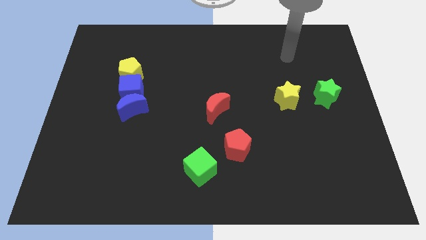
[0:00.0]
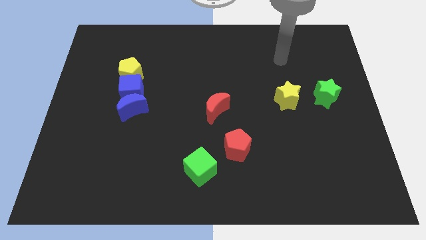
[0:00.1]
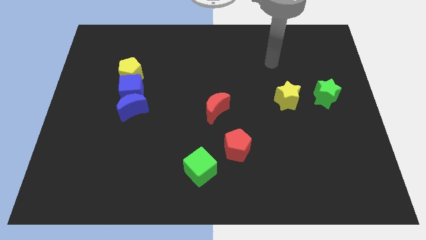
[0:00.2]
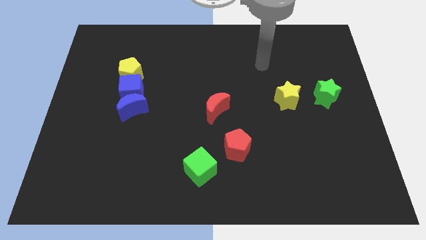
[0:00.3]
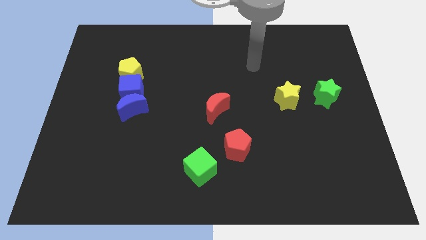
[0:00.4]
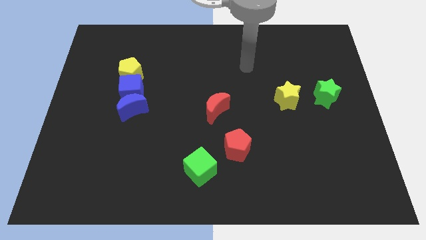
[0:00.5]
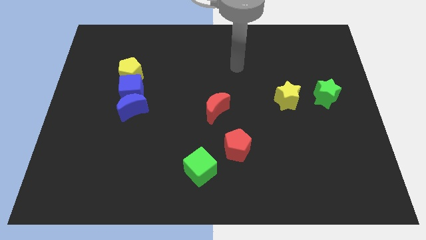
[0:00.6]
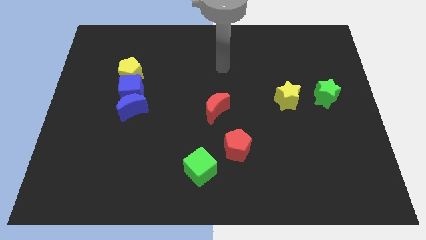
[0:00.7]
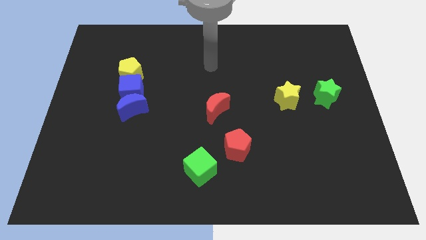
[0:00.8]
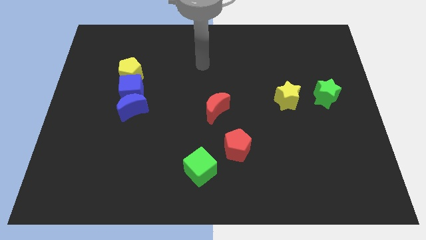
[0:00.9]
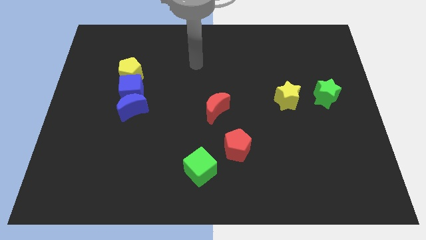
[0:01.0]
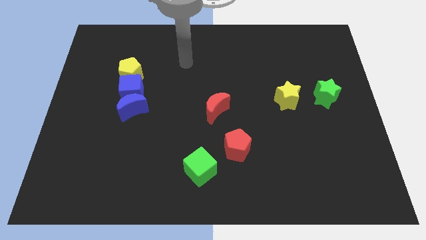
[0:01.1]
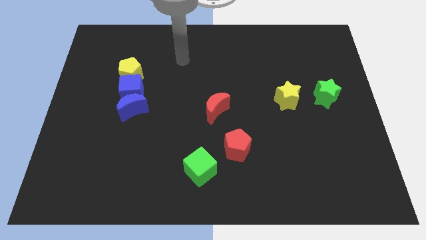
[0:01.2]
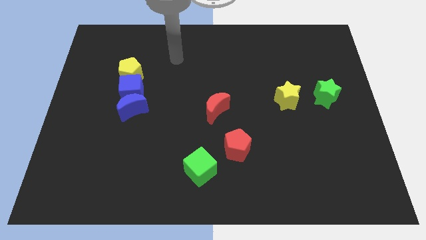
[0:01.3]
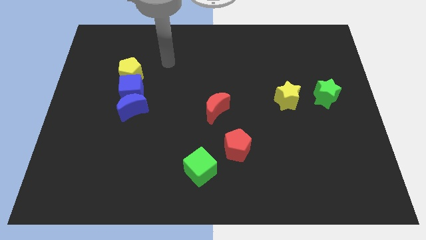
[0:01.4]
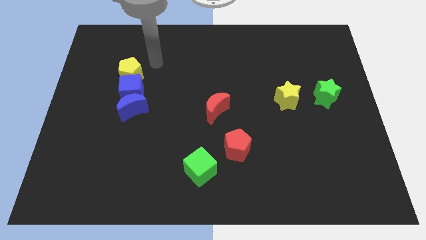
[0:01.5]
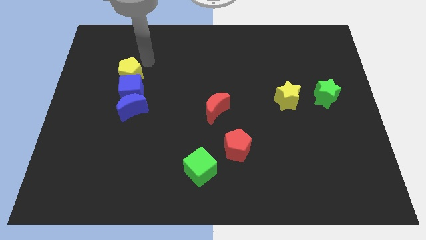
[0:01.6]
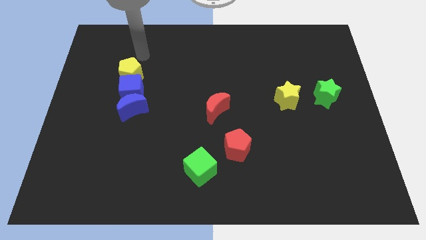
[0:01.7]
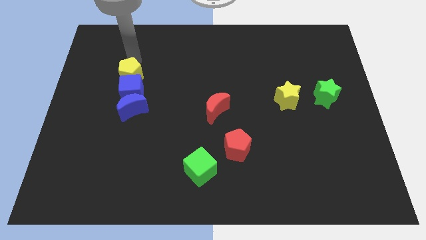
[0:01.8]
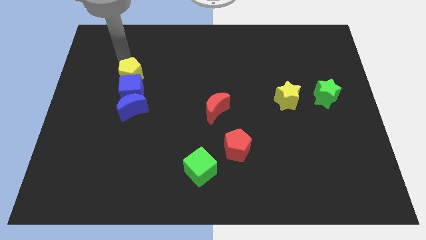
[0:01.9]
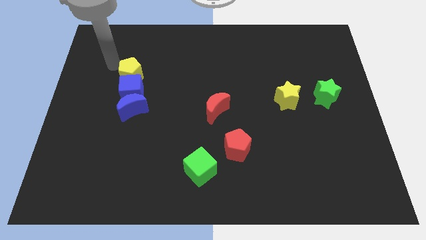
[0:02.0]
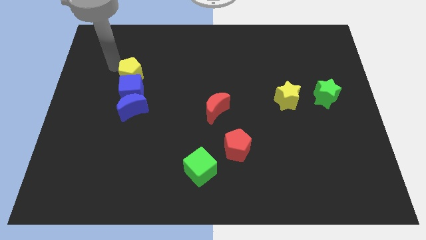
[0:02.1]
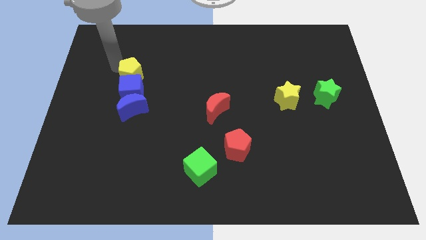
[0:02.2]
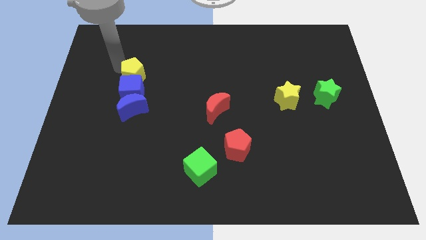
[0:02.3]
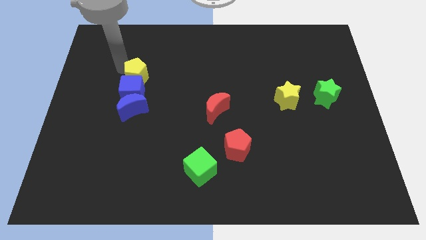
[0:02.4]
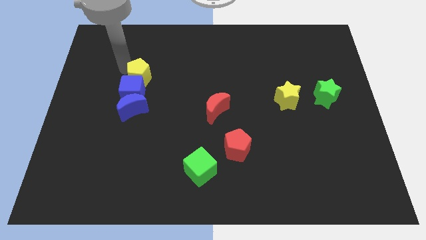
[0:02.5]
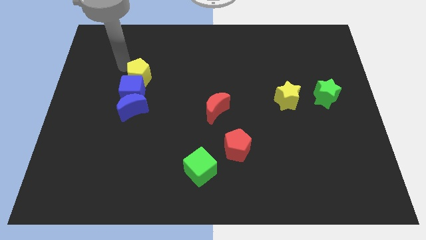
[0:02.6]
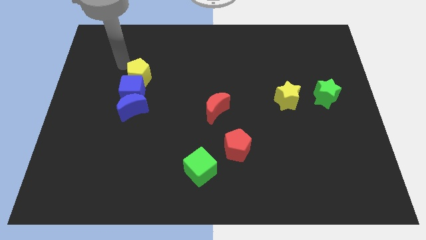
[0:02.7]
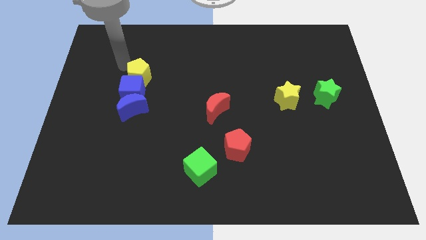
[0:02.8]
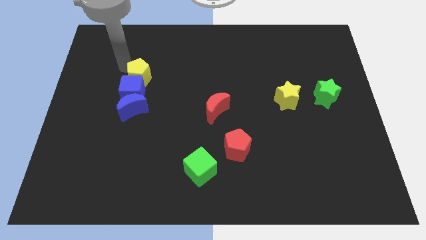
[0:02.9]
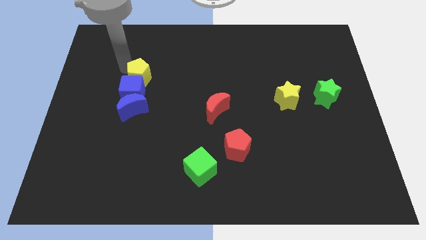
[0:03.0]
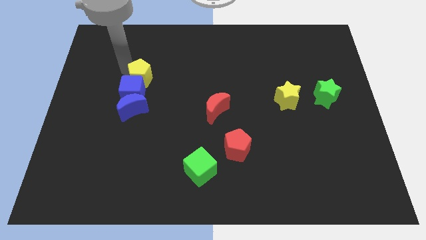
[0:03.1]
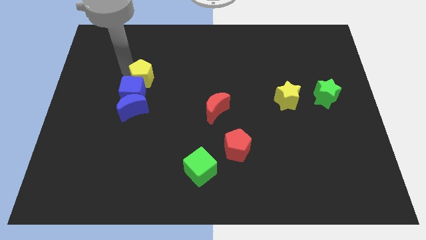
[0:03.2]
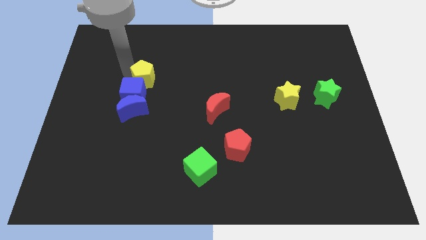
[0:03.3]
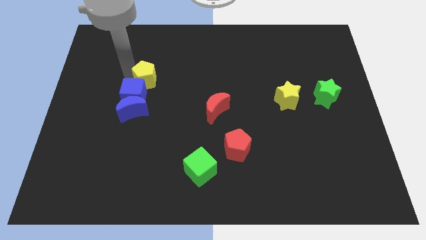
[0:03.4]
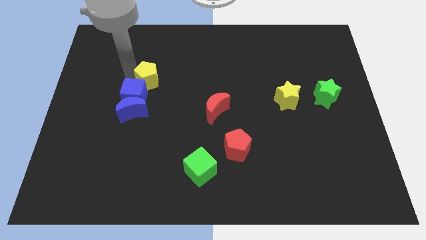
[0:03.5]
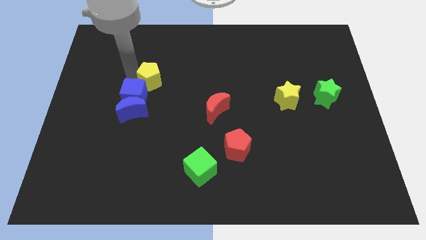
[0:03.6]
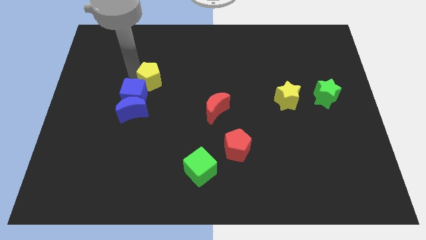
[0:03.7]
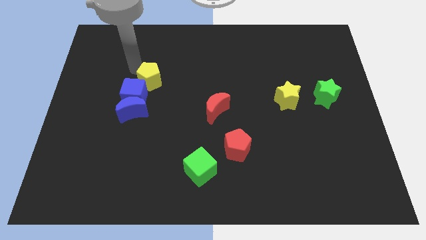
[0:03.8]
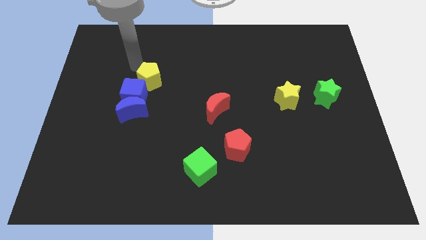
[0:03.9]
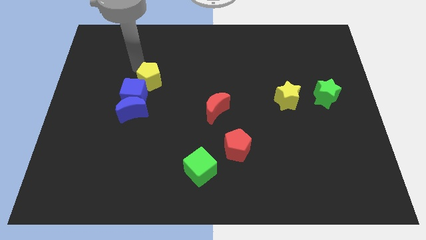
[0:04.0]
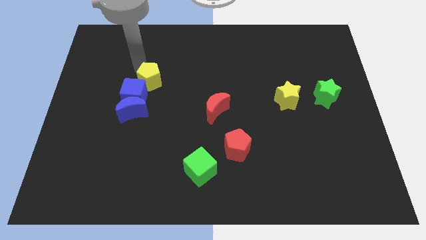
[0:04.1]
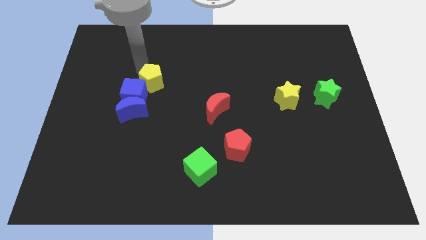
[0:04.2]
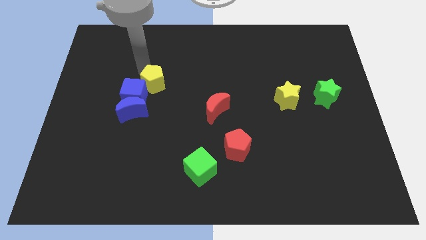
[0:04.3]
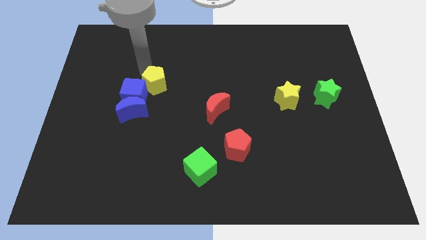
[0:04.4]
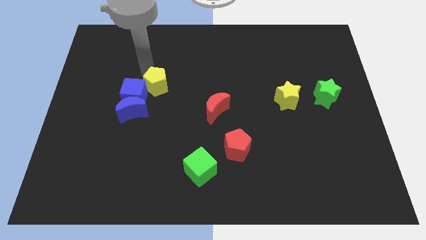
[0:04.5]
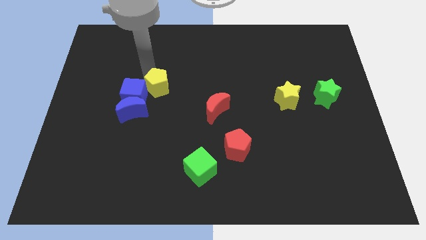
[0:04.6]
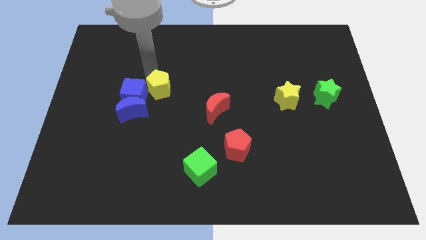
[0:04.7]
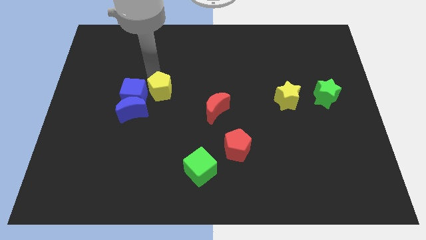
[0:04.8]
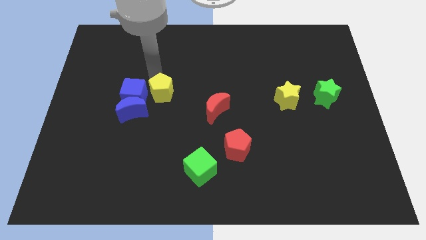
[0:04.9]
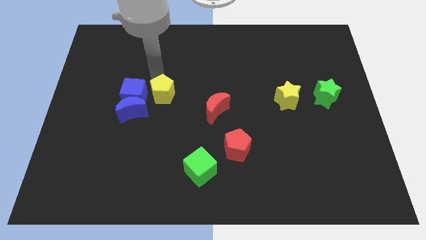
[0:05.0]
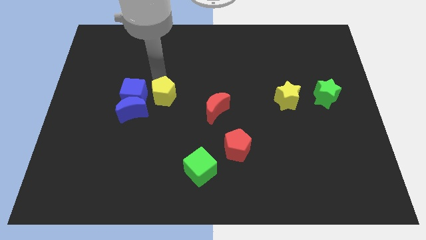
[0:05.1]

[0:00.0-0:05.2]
move the yellow pentagon diagonally down and to the right of the blue cube

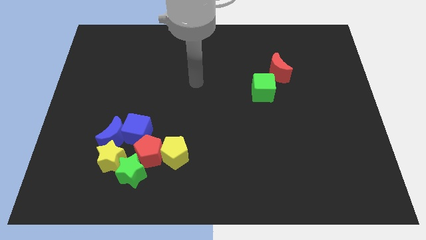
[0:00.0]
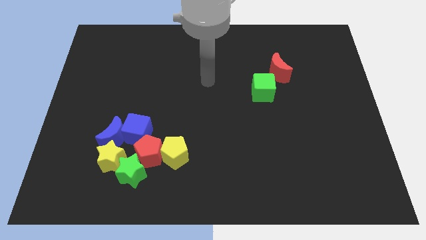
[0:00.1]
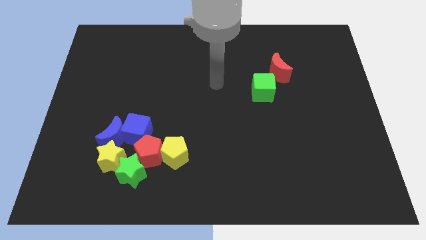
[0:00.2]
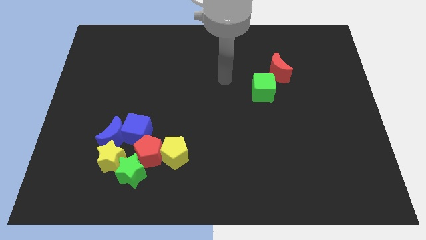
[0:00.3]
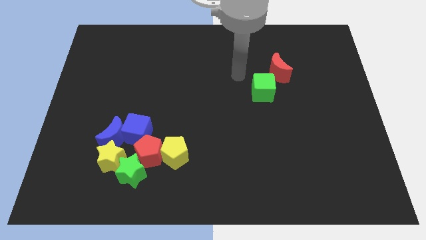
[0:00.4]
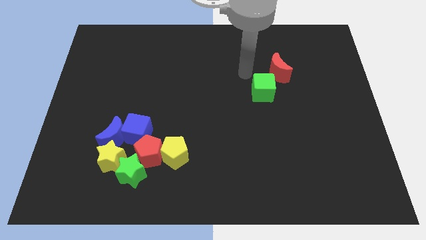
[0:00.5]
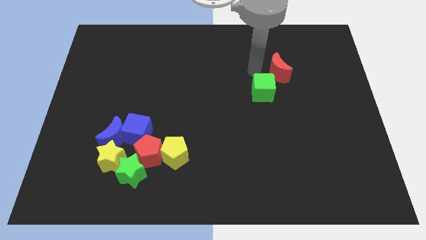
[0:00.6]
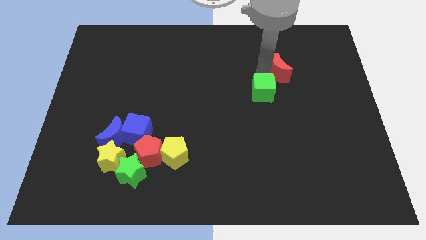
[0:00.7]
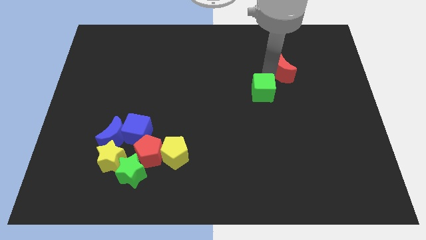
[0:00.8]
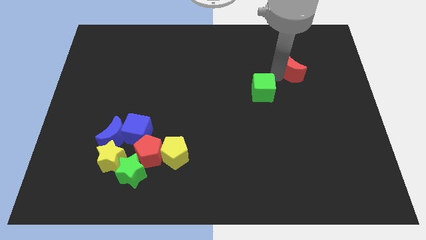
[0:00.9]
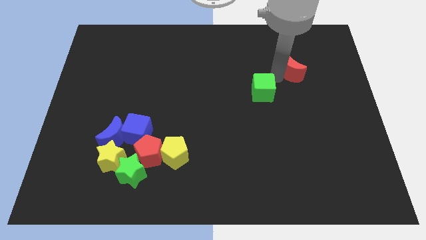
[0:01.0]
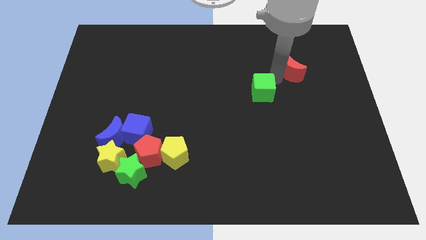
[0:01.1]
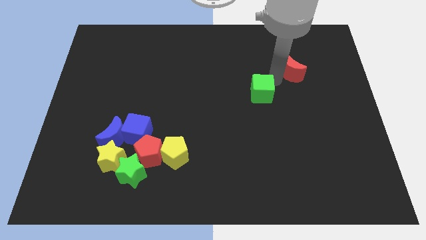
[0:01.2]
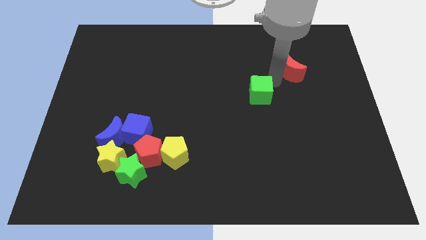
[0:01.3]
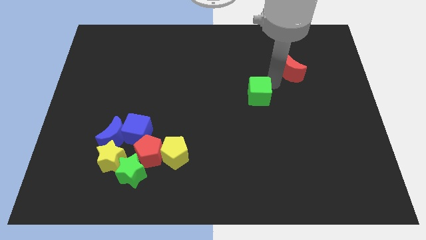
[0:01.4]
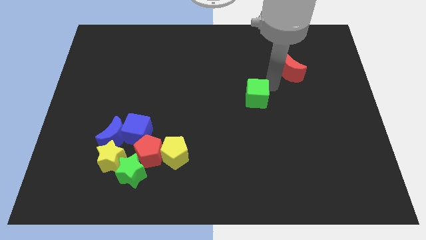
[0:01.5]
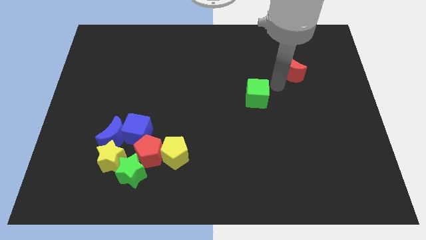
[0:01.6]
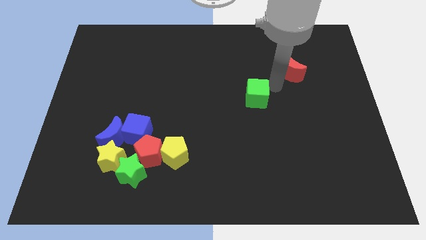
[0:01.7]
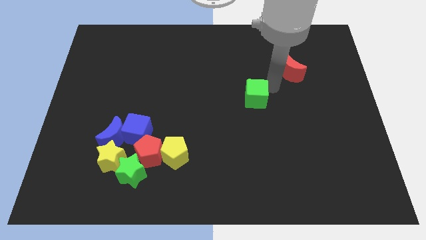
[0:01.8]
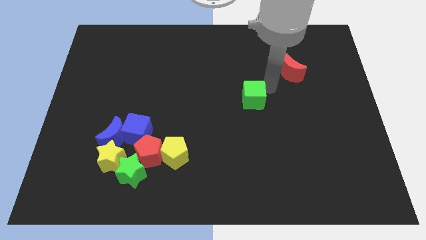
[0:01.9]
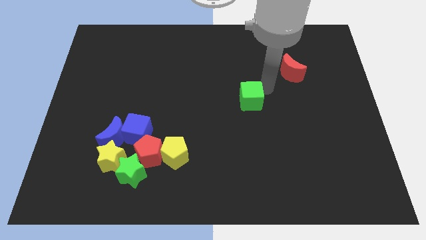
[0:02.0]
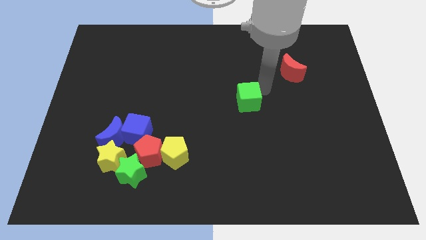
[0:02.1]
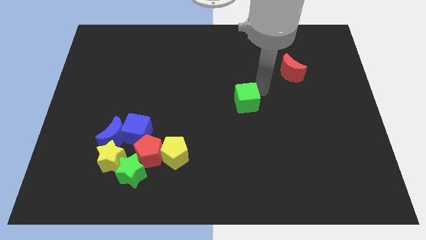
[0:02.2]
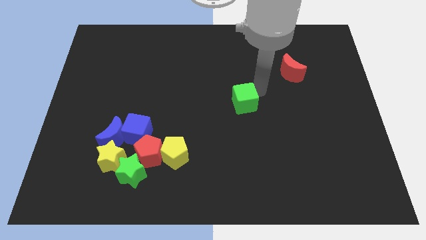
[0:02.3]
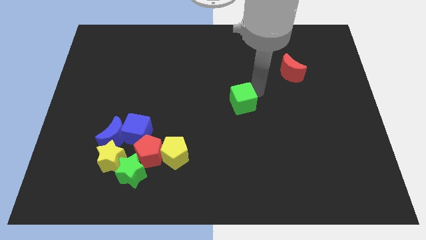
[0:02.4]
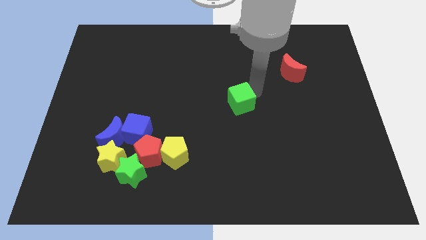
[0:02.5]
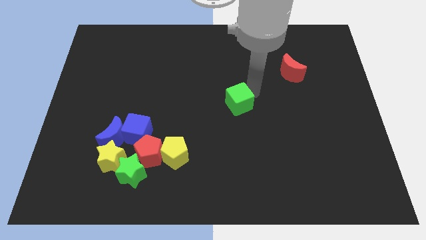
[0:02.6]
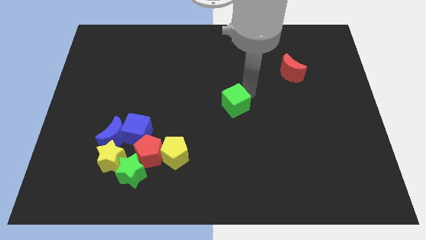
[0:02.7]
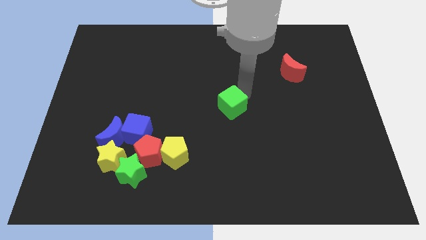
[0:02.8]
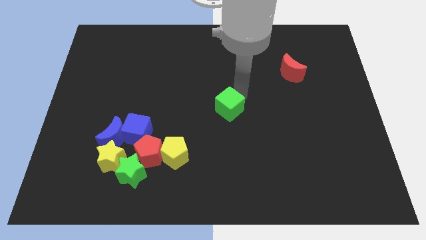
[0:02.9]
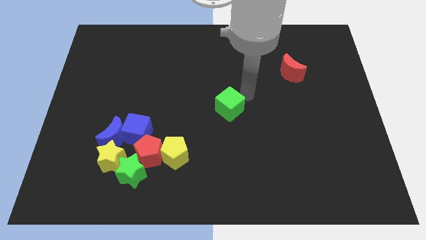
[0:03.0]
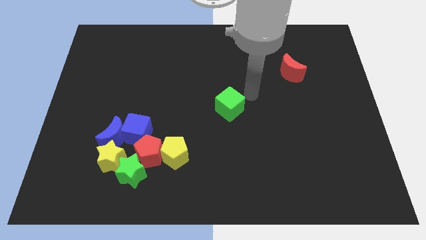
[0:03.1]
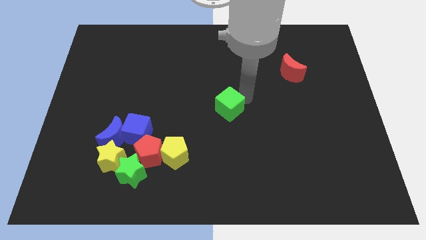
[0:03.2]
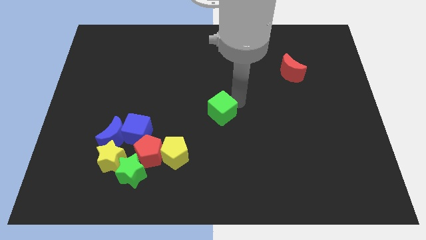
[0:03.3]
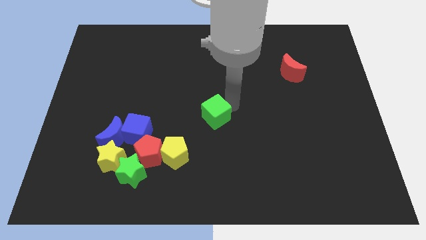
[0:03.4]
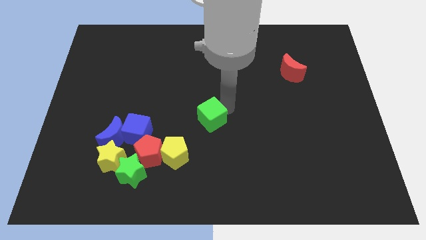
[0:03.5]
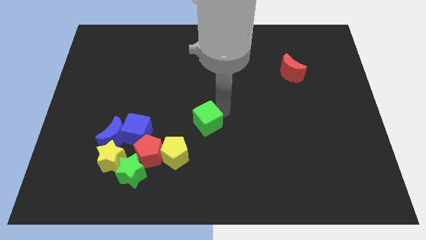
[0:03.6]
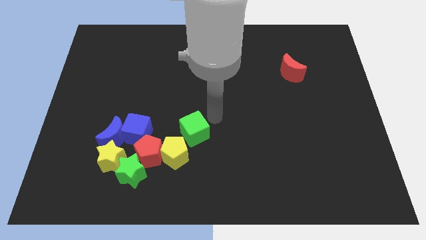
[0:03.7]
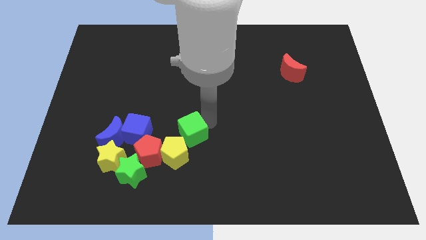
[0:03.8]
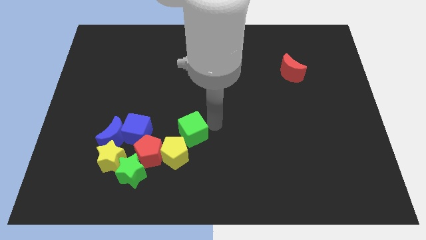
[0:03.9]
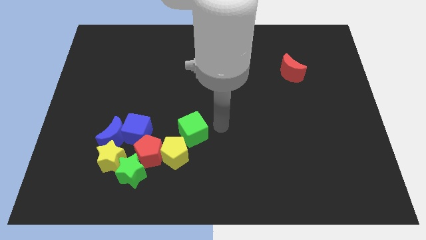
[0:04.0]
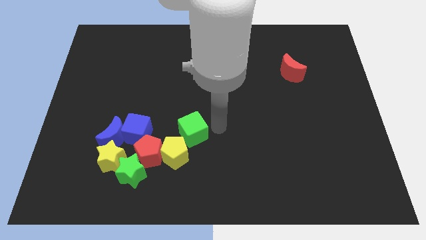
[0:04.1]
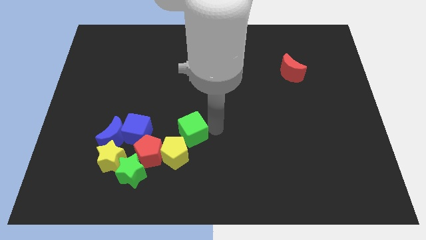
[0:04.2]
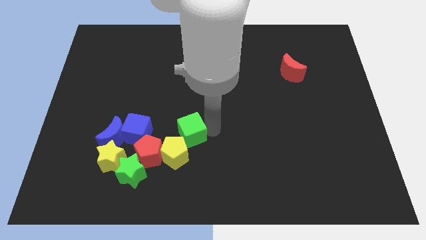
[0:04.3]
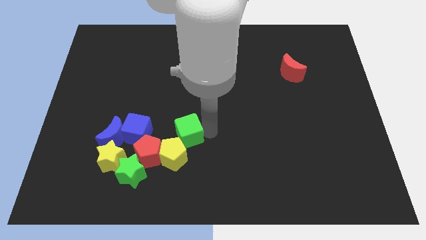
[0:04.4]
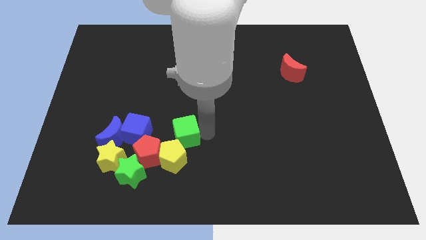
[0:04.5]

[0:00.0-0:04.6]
move the green cube to the right of the blue moon
